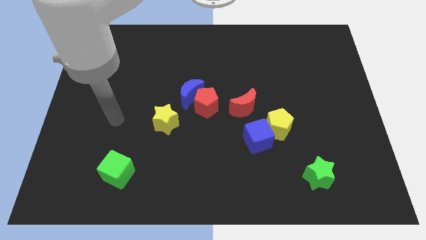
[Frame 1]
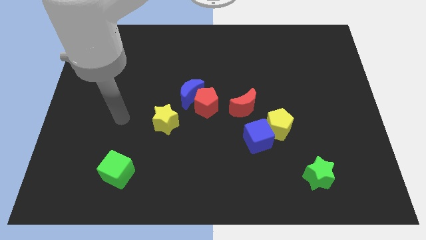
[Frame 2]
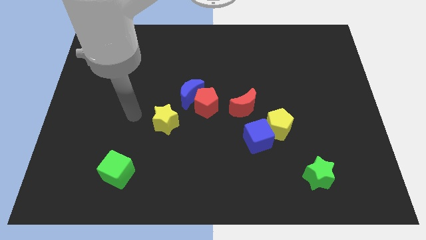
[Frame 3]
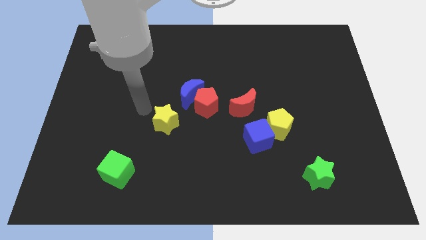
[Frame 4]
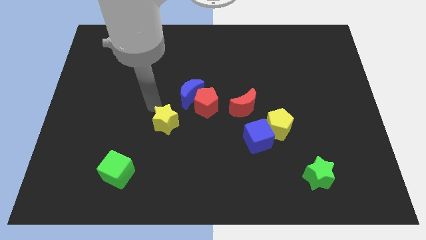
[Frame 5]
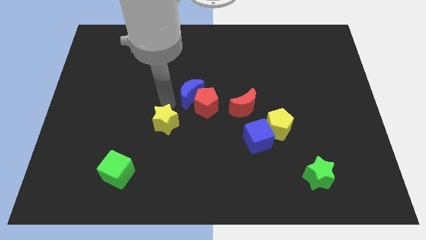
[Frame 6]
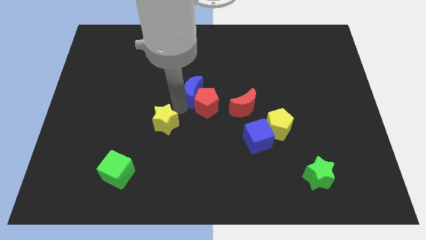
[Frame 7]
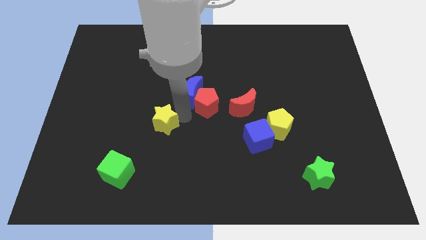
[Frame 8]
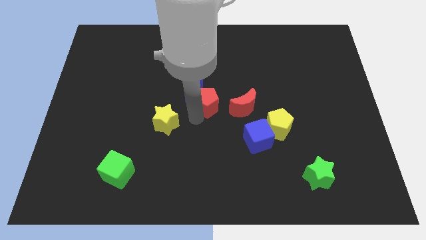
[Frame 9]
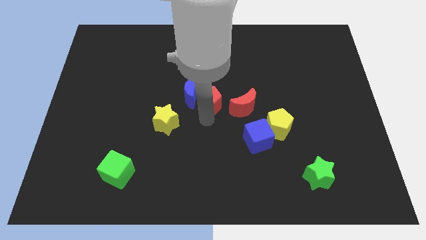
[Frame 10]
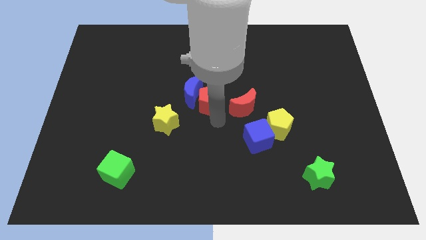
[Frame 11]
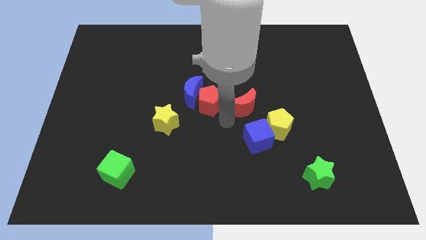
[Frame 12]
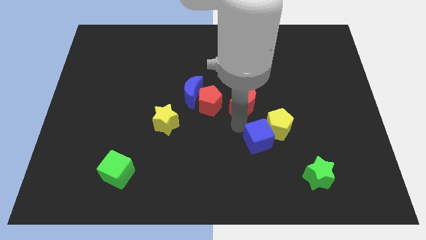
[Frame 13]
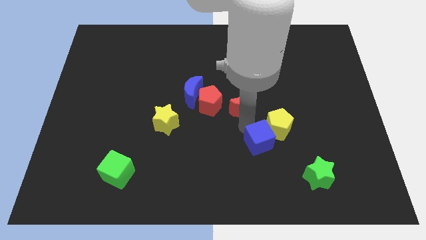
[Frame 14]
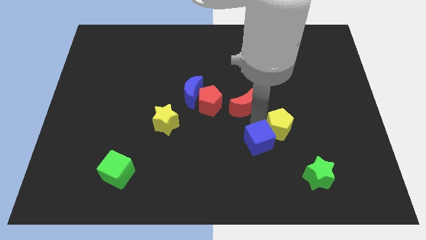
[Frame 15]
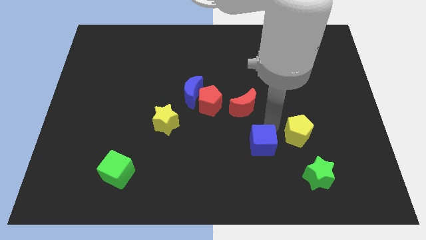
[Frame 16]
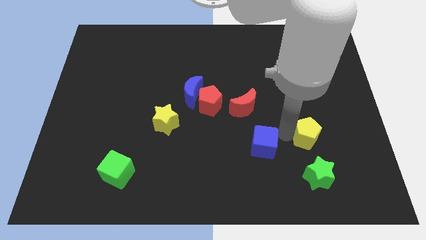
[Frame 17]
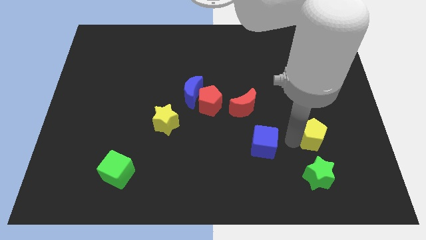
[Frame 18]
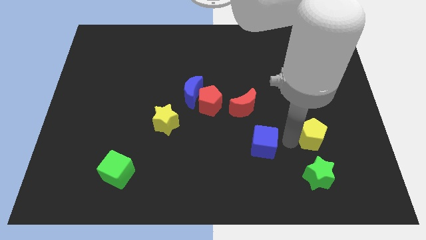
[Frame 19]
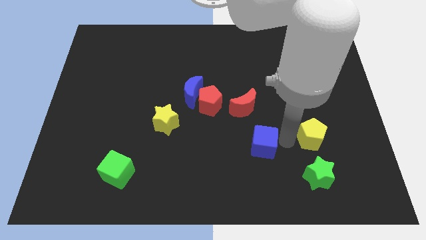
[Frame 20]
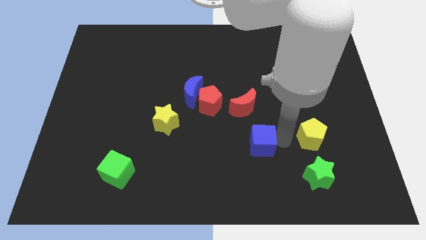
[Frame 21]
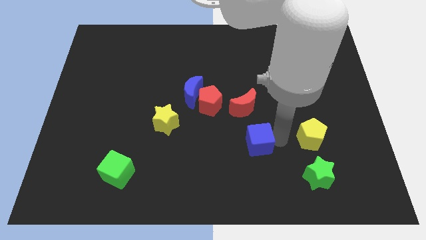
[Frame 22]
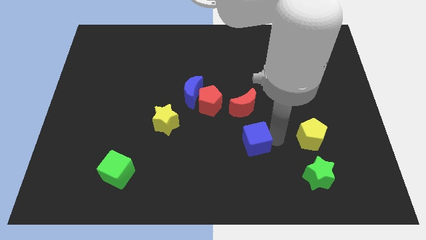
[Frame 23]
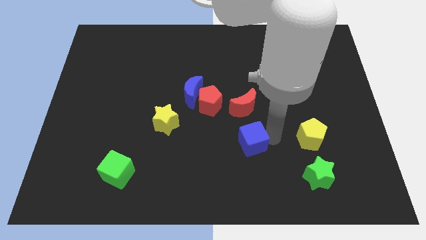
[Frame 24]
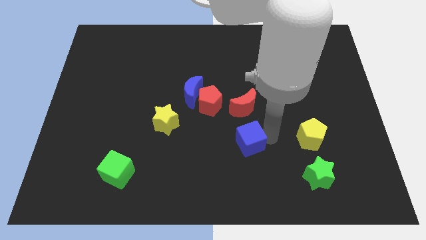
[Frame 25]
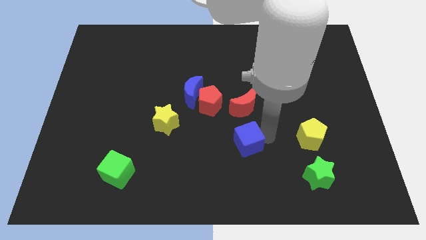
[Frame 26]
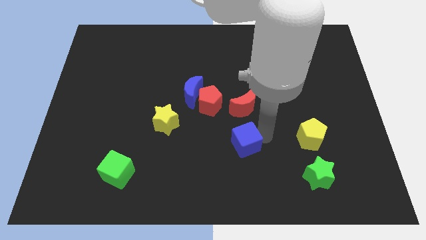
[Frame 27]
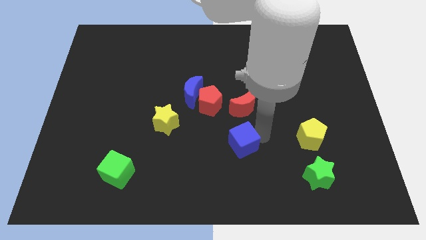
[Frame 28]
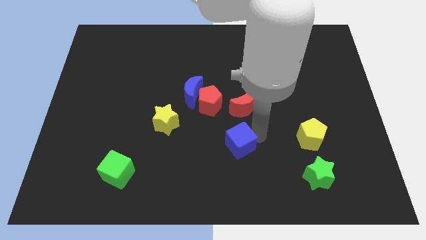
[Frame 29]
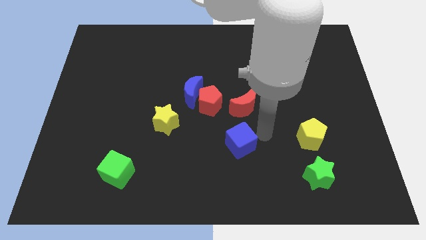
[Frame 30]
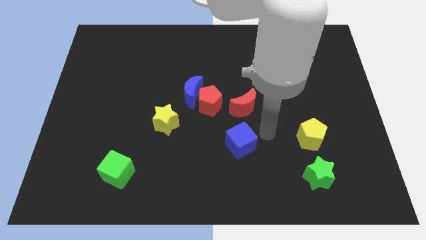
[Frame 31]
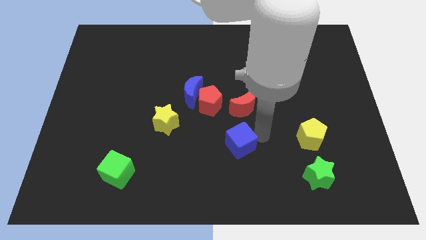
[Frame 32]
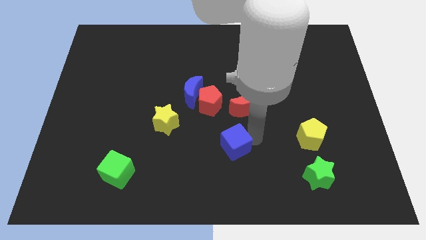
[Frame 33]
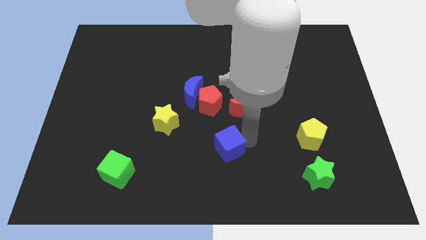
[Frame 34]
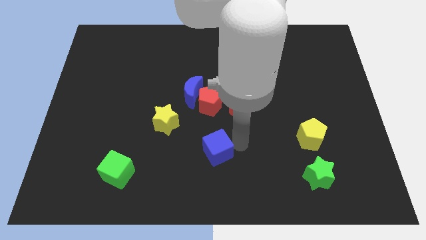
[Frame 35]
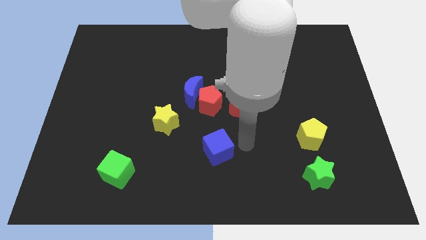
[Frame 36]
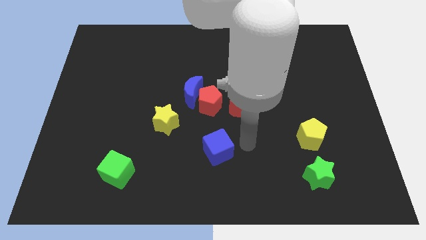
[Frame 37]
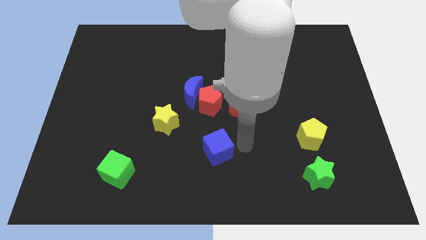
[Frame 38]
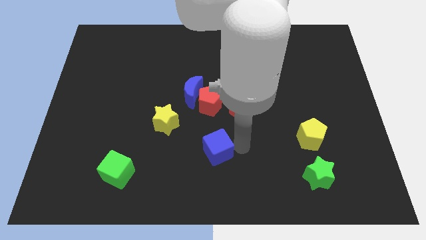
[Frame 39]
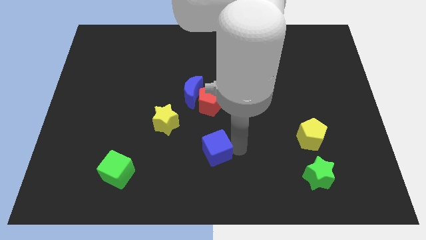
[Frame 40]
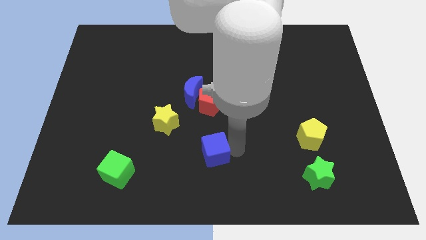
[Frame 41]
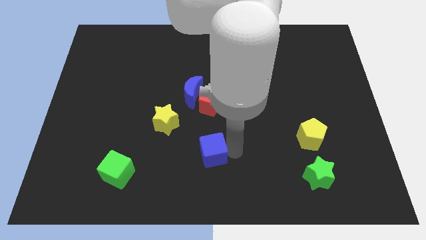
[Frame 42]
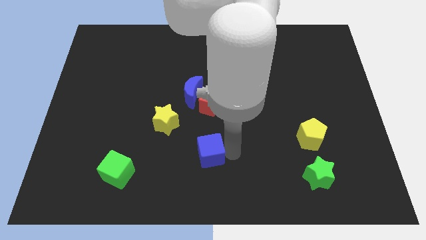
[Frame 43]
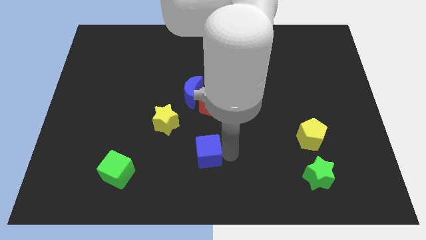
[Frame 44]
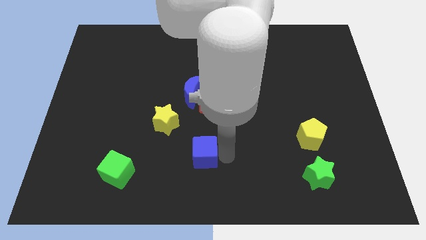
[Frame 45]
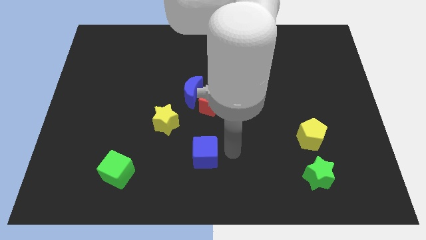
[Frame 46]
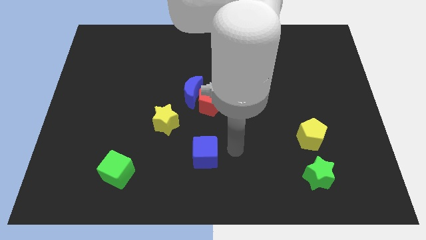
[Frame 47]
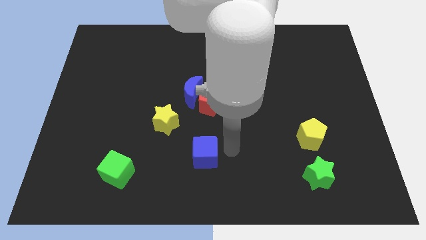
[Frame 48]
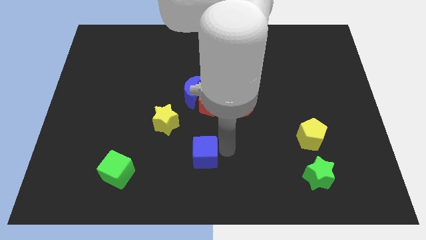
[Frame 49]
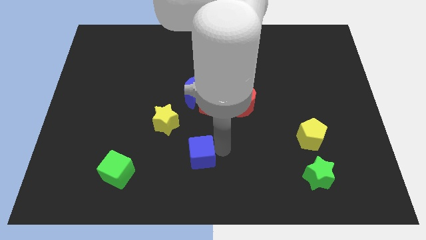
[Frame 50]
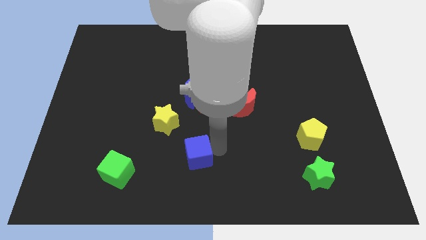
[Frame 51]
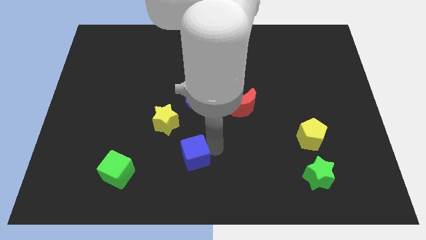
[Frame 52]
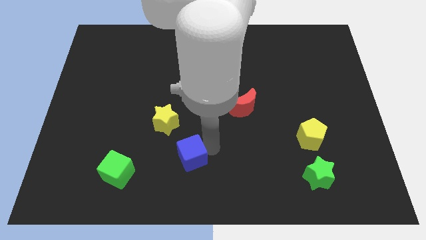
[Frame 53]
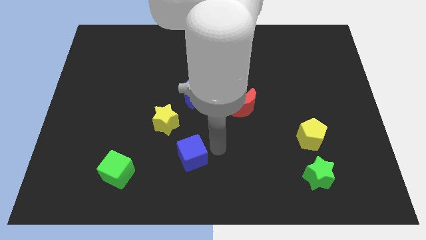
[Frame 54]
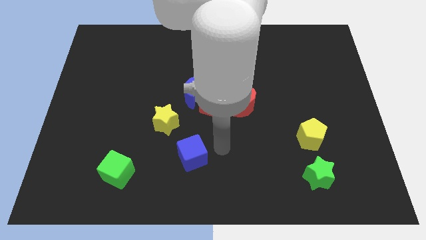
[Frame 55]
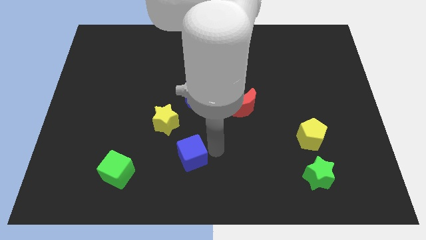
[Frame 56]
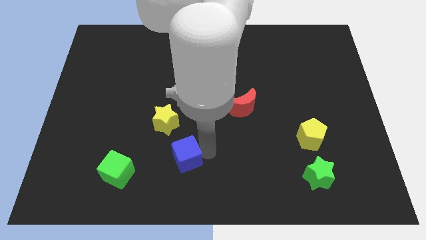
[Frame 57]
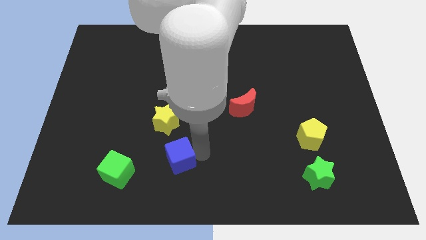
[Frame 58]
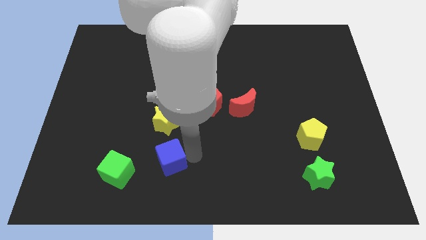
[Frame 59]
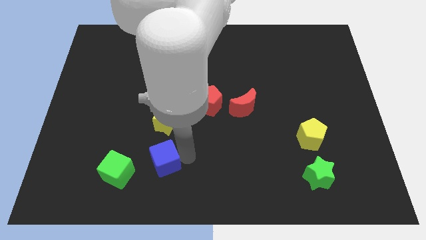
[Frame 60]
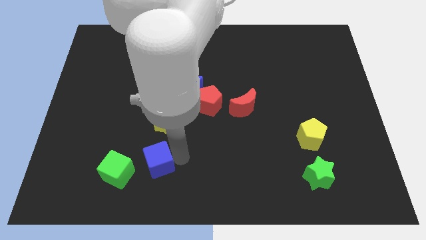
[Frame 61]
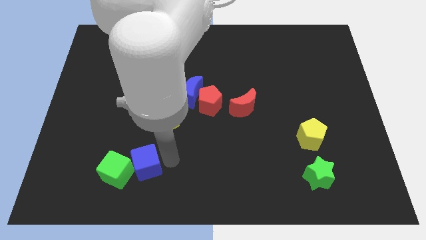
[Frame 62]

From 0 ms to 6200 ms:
put the blue cube to the green cube

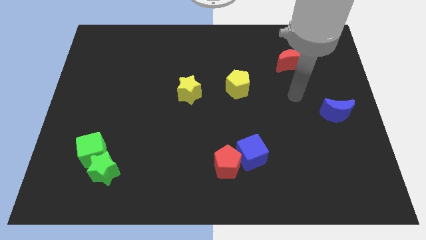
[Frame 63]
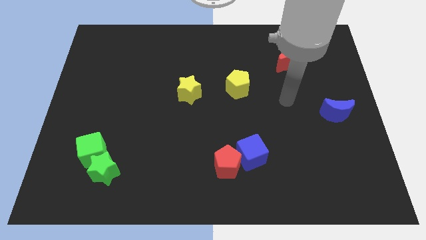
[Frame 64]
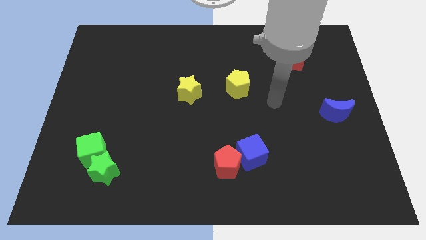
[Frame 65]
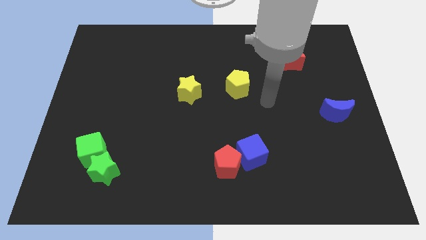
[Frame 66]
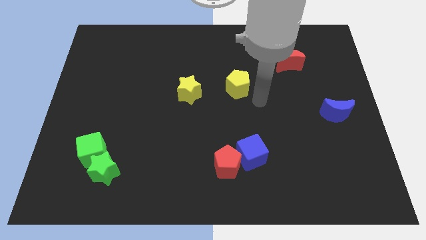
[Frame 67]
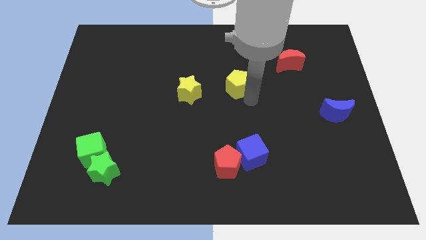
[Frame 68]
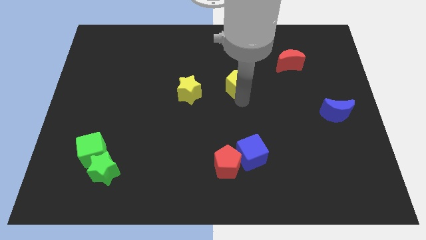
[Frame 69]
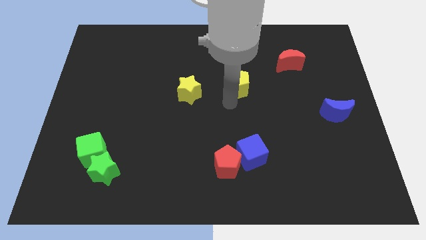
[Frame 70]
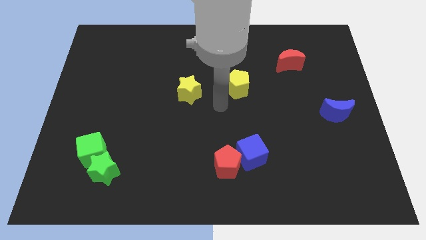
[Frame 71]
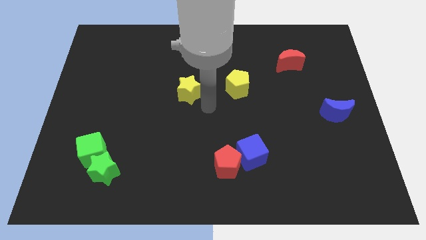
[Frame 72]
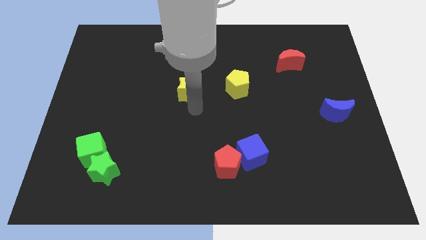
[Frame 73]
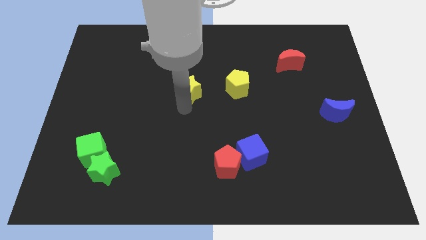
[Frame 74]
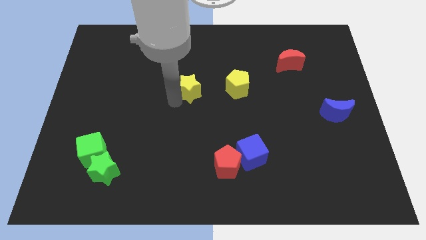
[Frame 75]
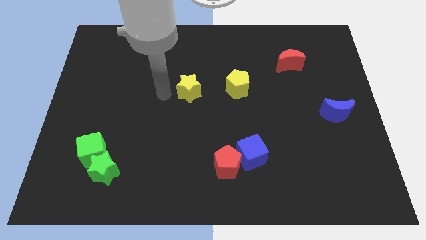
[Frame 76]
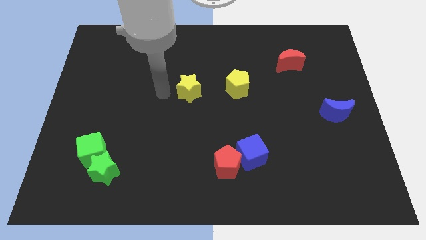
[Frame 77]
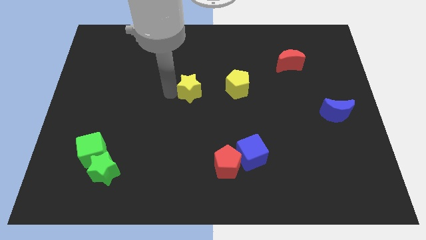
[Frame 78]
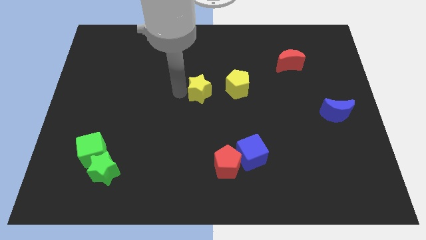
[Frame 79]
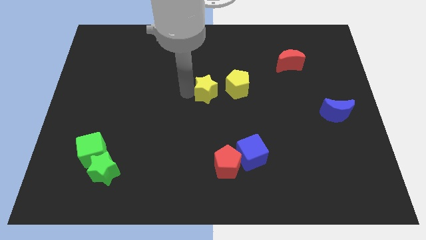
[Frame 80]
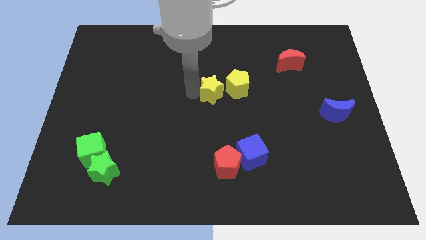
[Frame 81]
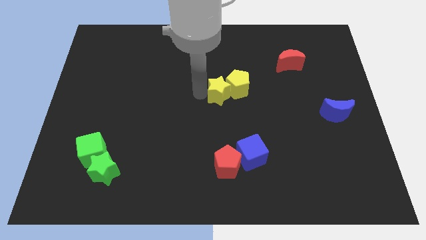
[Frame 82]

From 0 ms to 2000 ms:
push the yellow star towards the yellow pentagon
